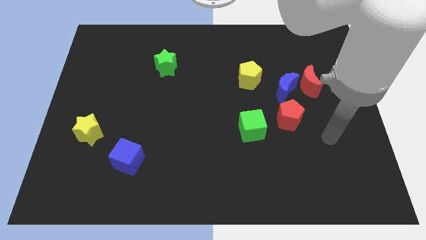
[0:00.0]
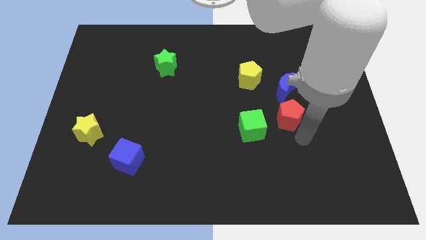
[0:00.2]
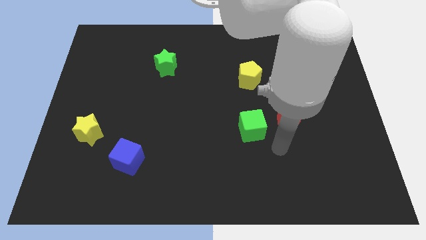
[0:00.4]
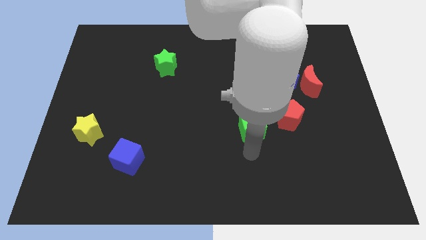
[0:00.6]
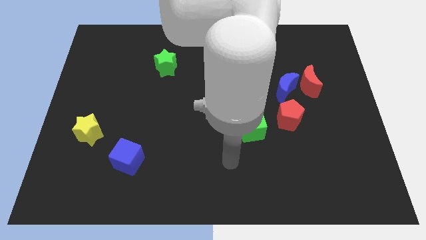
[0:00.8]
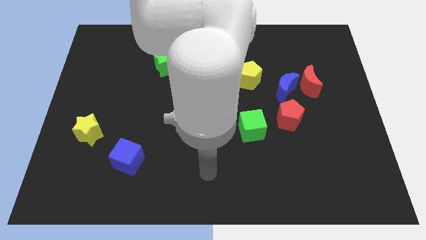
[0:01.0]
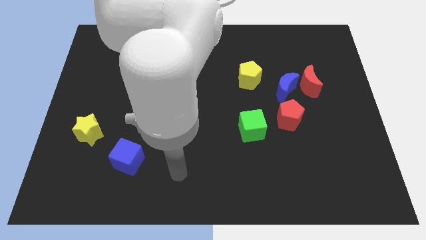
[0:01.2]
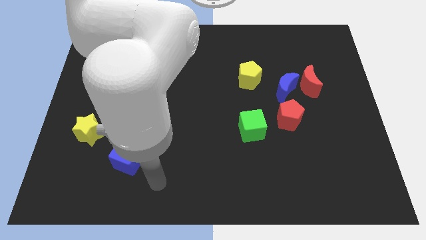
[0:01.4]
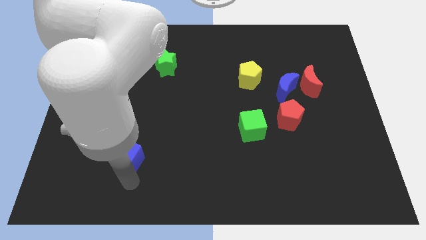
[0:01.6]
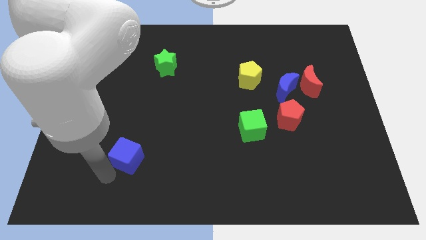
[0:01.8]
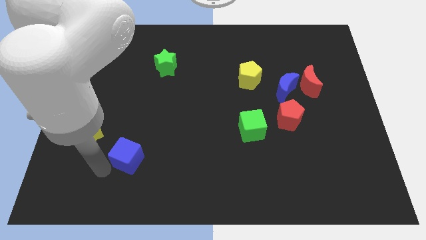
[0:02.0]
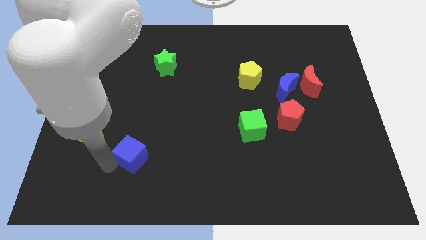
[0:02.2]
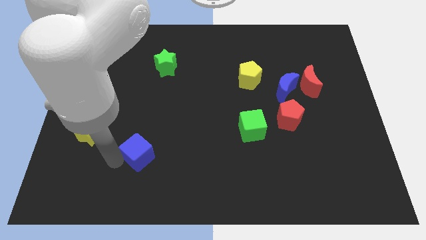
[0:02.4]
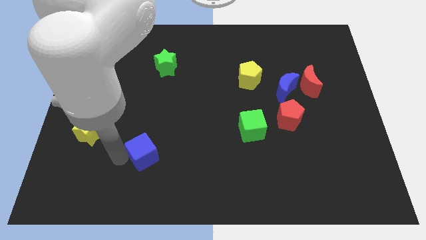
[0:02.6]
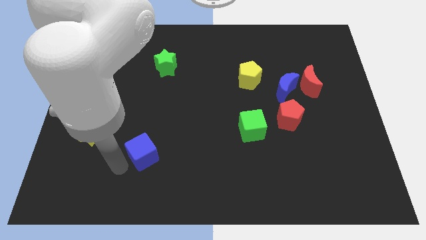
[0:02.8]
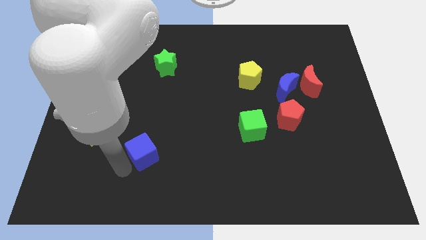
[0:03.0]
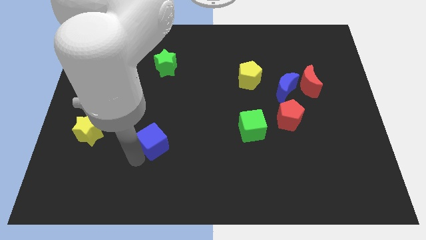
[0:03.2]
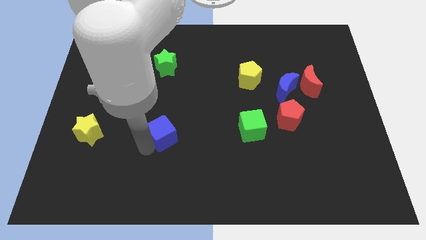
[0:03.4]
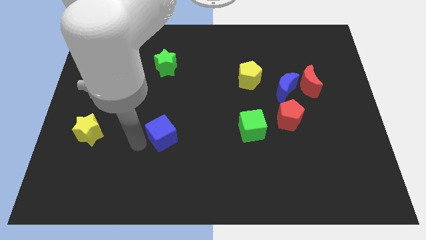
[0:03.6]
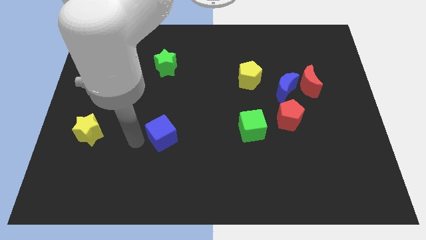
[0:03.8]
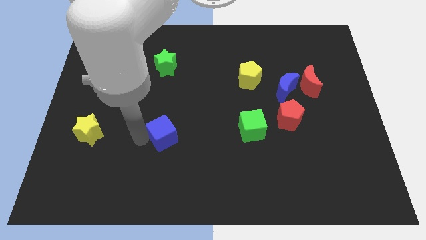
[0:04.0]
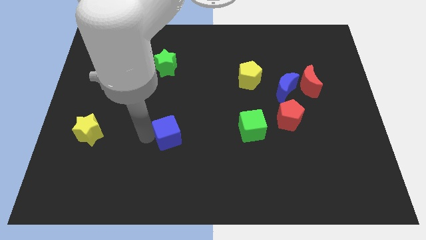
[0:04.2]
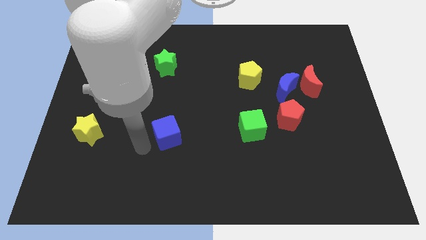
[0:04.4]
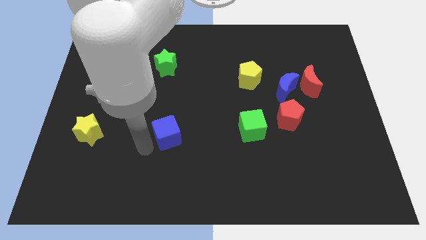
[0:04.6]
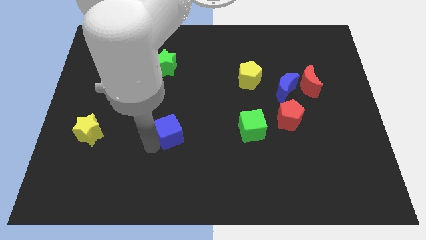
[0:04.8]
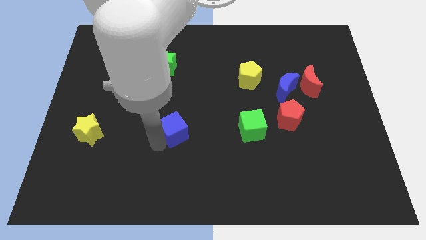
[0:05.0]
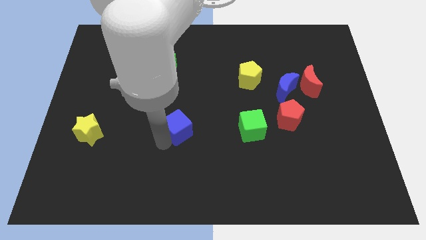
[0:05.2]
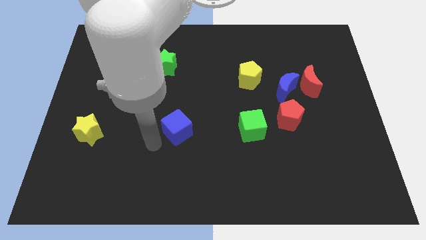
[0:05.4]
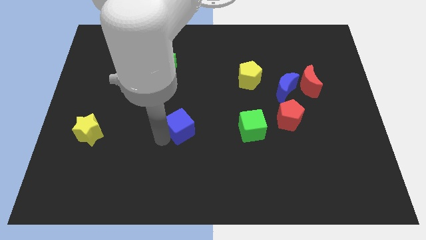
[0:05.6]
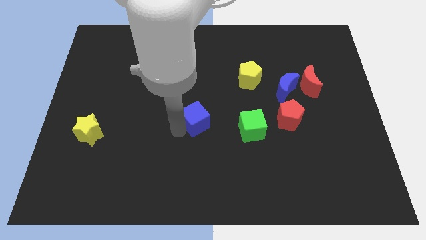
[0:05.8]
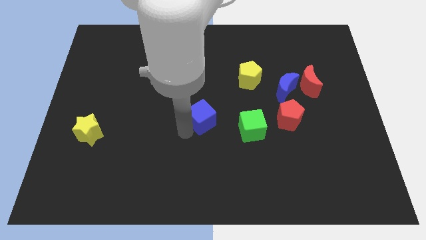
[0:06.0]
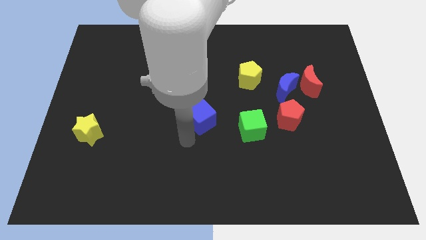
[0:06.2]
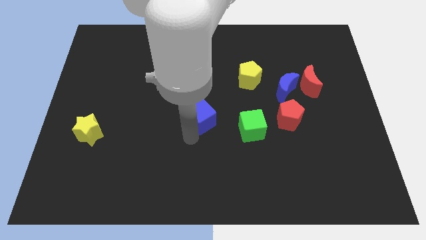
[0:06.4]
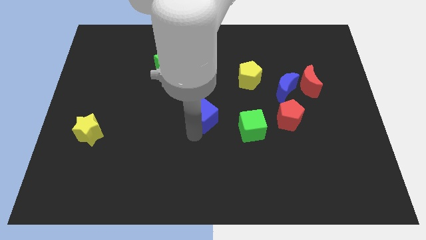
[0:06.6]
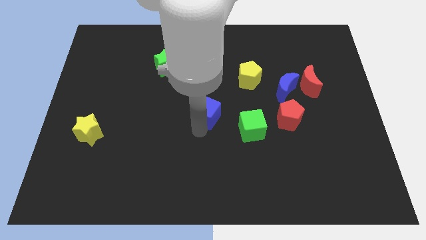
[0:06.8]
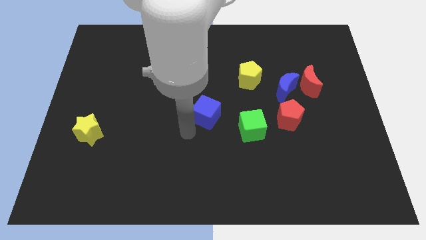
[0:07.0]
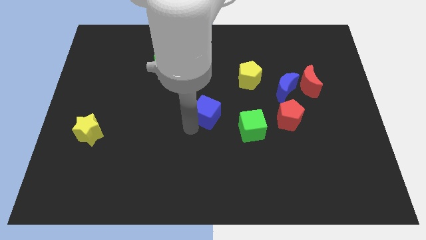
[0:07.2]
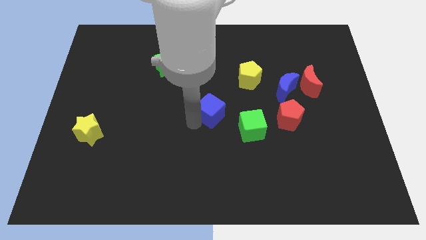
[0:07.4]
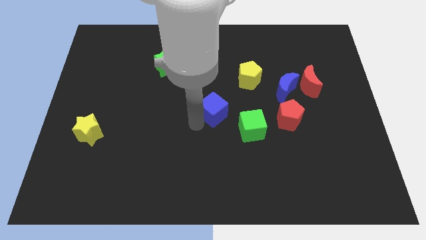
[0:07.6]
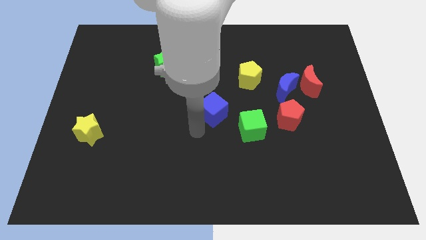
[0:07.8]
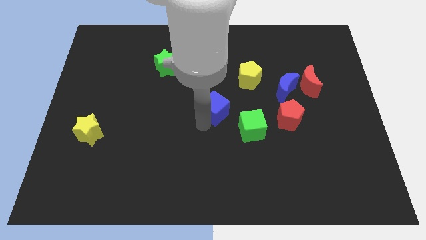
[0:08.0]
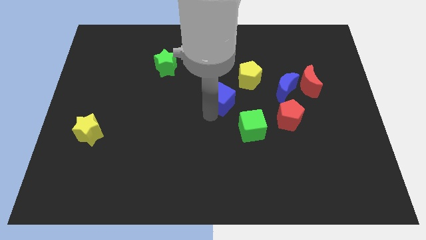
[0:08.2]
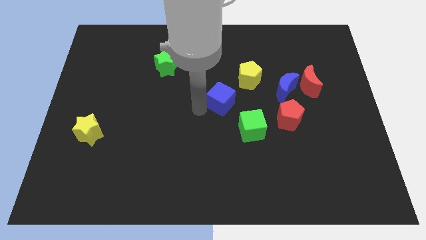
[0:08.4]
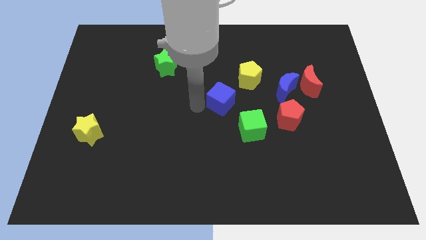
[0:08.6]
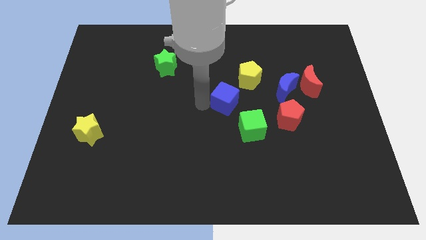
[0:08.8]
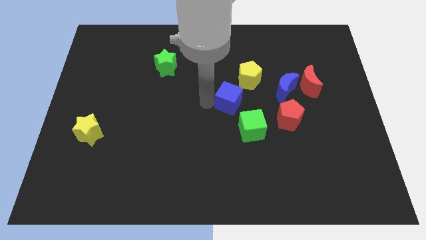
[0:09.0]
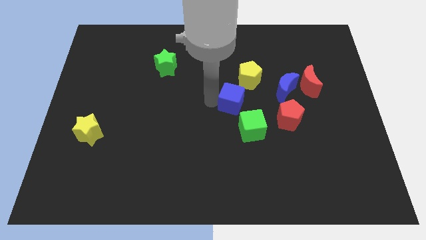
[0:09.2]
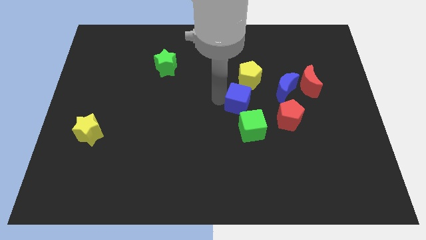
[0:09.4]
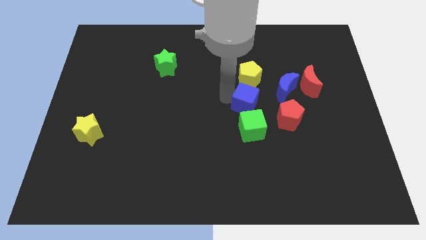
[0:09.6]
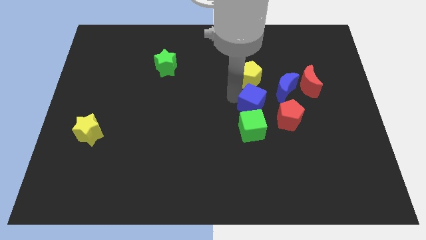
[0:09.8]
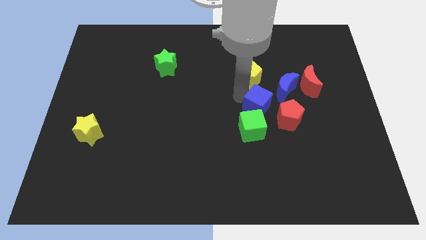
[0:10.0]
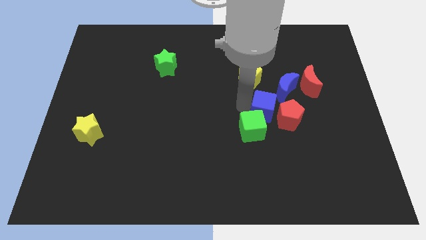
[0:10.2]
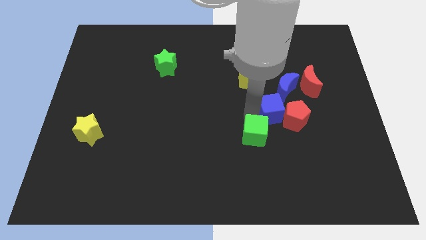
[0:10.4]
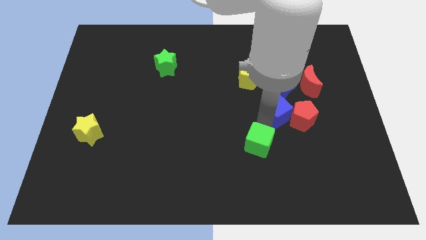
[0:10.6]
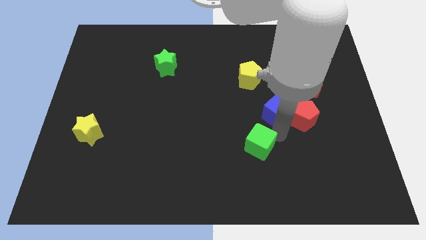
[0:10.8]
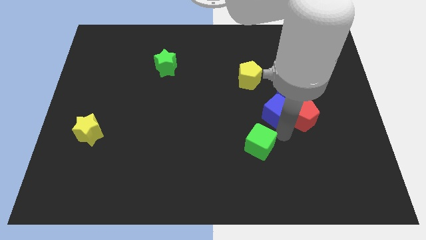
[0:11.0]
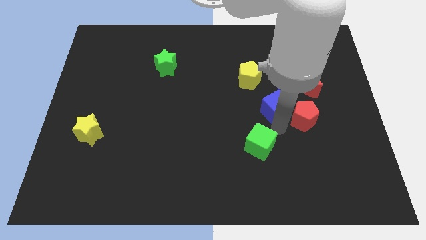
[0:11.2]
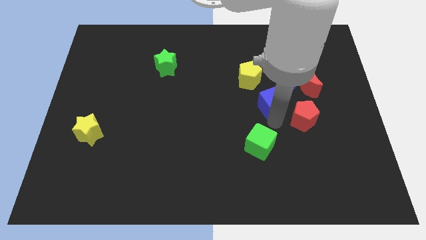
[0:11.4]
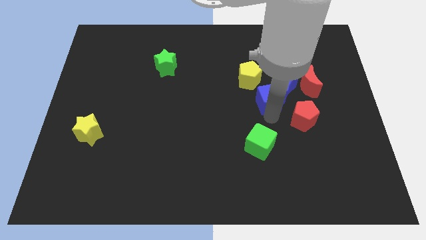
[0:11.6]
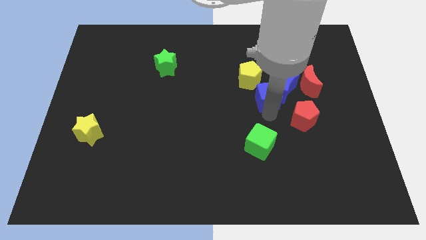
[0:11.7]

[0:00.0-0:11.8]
push the blue cube left of the red moon

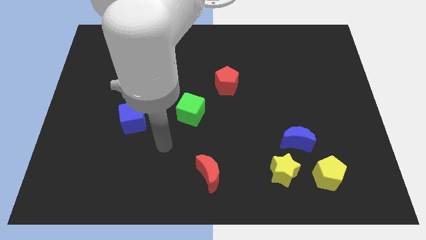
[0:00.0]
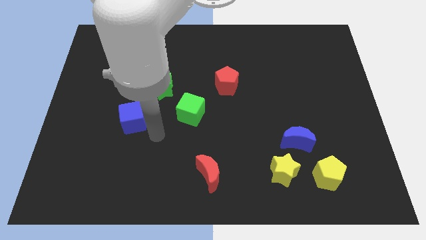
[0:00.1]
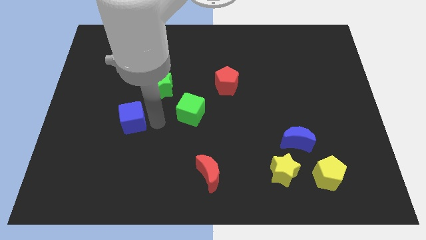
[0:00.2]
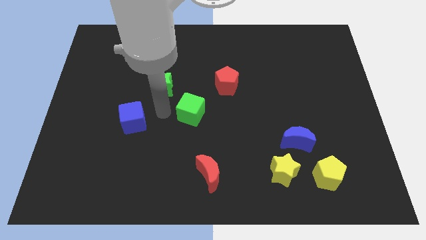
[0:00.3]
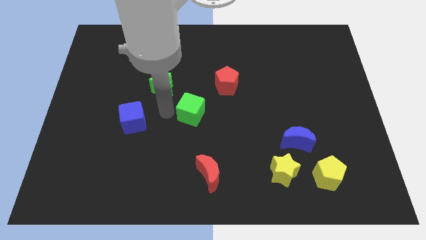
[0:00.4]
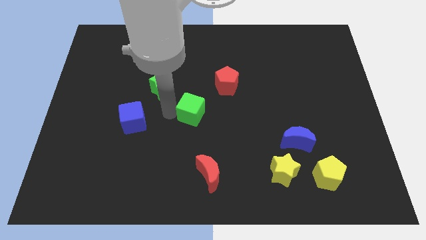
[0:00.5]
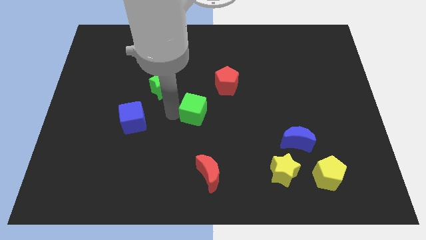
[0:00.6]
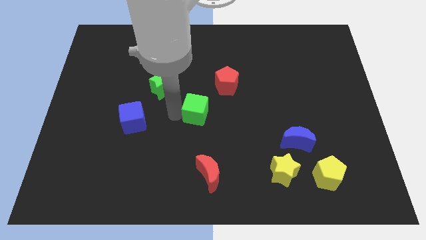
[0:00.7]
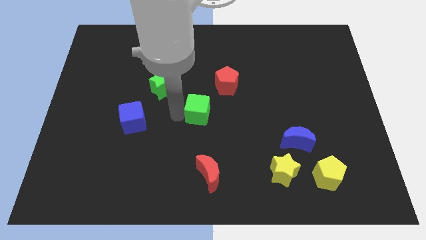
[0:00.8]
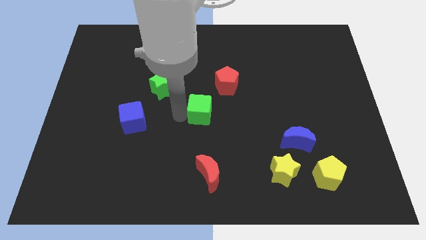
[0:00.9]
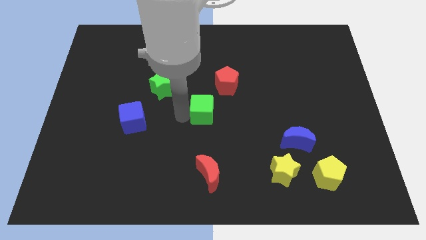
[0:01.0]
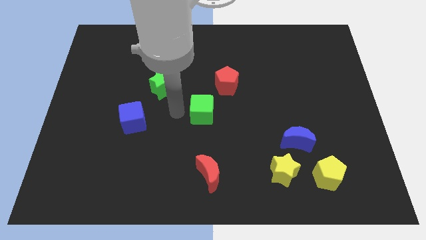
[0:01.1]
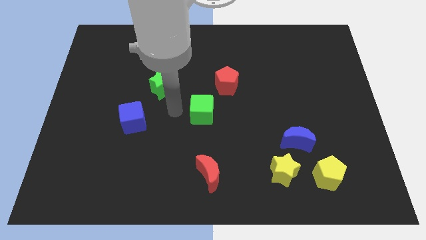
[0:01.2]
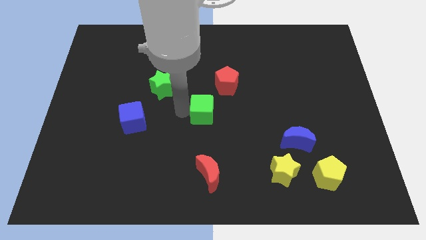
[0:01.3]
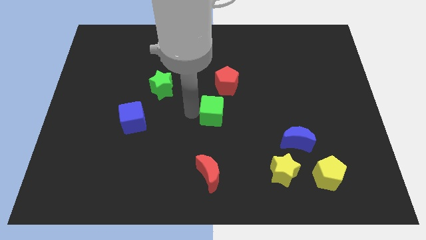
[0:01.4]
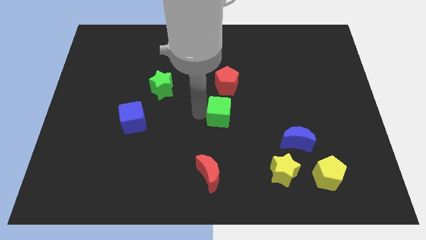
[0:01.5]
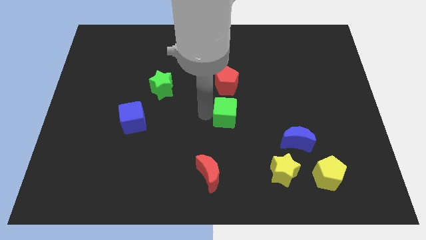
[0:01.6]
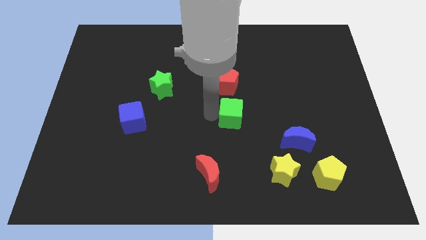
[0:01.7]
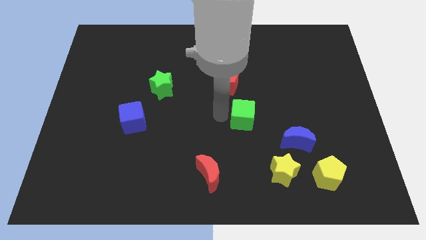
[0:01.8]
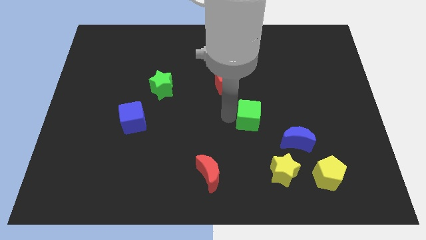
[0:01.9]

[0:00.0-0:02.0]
slide the green cube diagonally up and to the left of the blue moon
